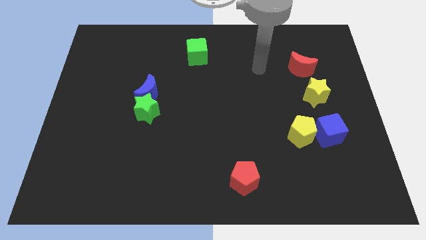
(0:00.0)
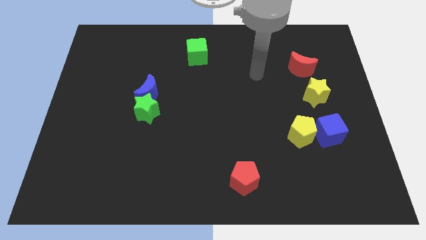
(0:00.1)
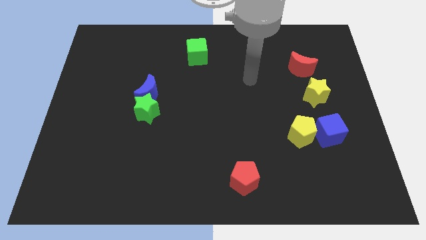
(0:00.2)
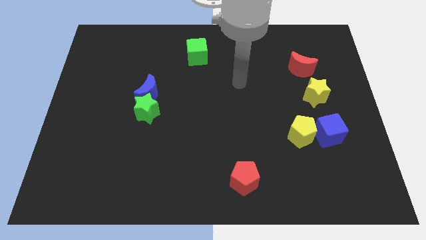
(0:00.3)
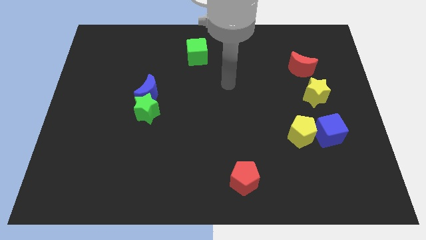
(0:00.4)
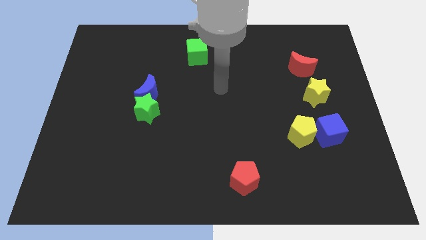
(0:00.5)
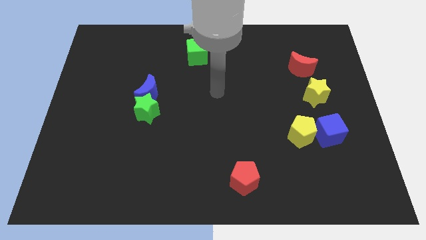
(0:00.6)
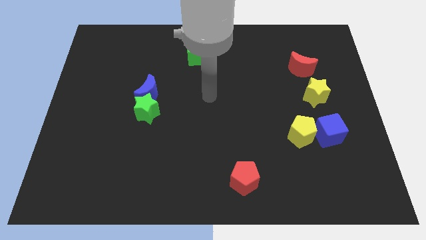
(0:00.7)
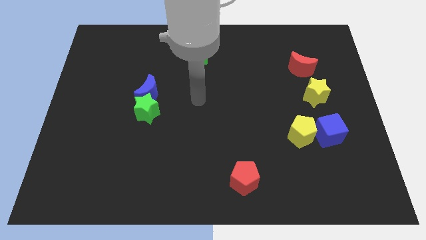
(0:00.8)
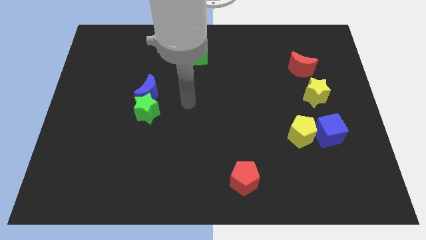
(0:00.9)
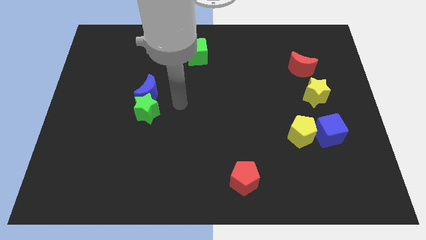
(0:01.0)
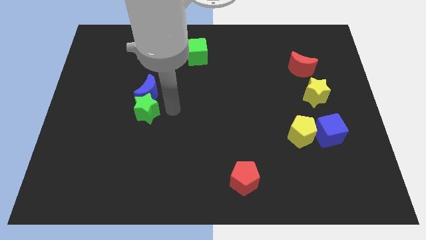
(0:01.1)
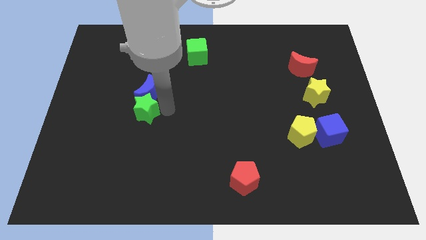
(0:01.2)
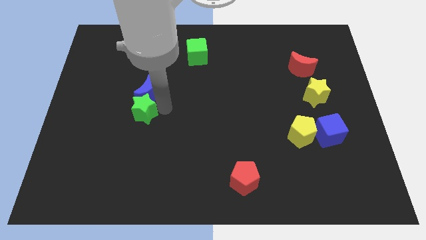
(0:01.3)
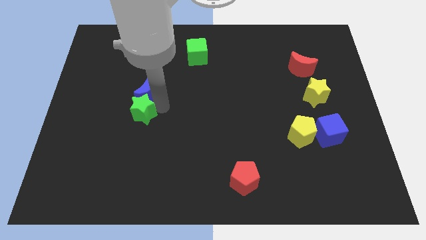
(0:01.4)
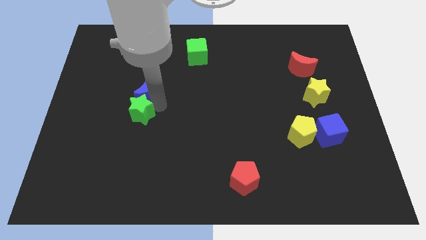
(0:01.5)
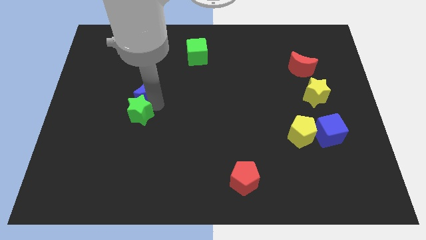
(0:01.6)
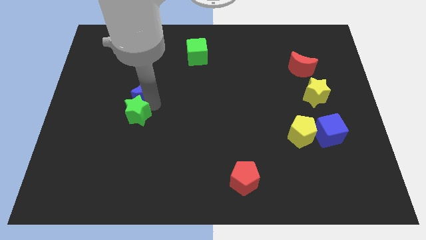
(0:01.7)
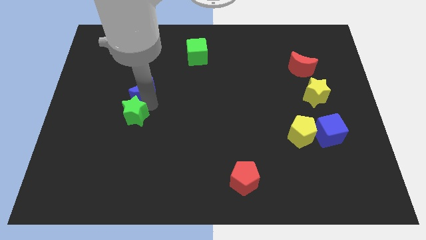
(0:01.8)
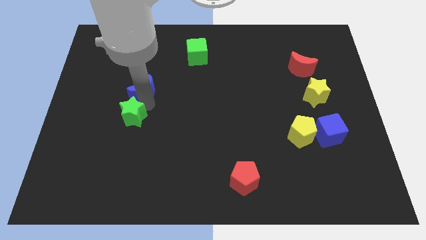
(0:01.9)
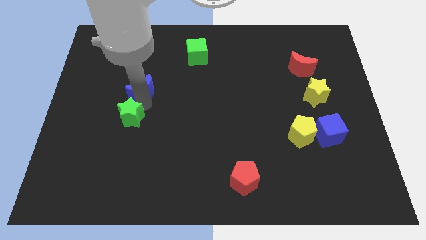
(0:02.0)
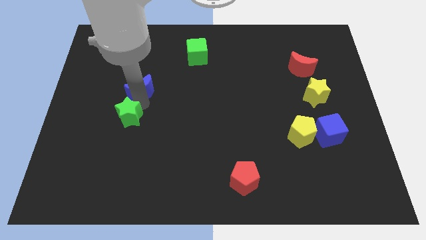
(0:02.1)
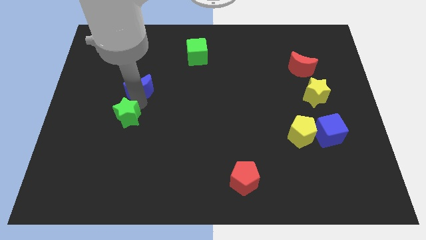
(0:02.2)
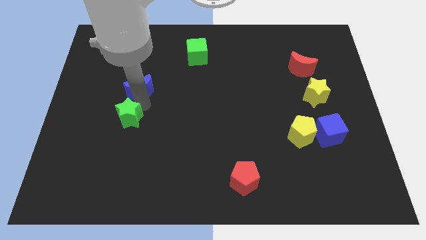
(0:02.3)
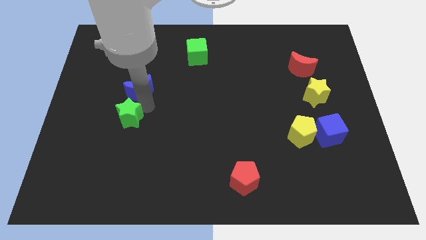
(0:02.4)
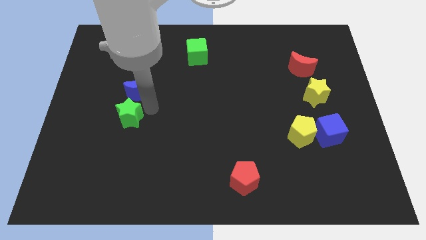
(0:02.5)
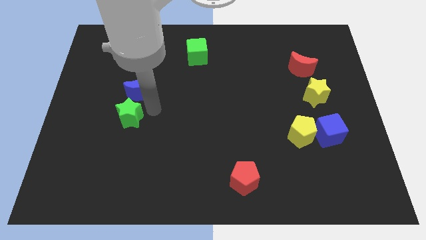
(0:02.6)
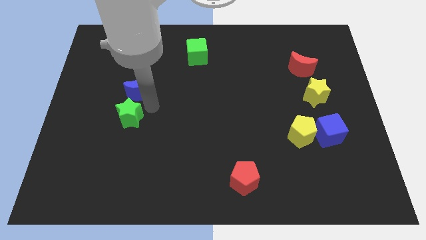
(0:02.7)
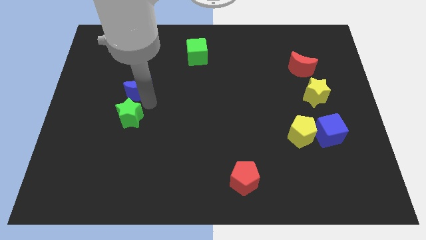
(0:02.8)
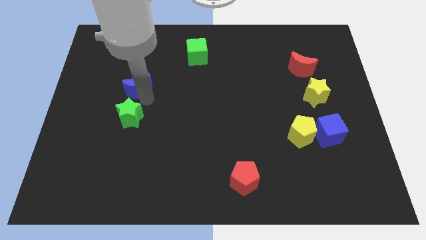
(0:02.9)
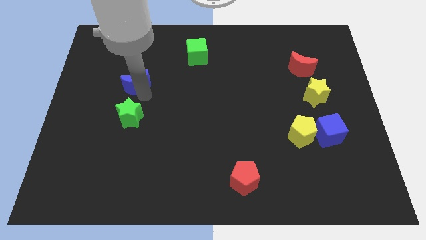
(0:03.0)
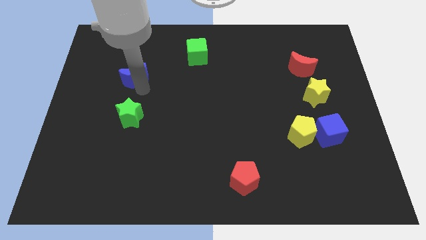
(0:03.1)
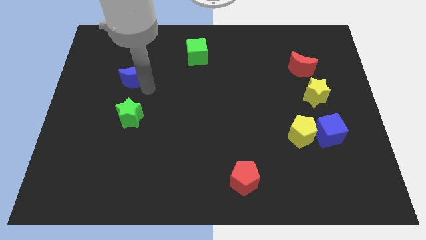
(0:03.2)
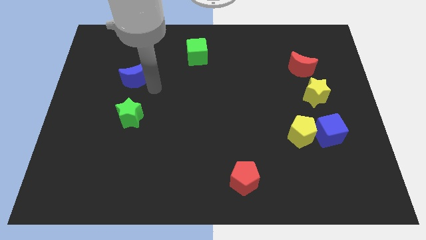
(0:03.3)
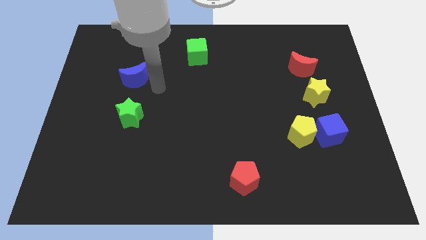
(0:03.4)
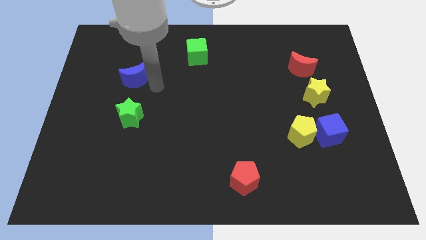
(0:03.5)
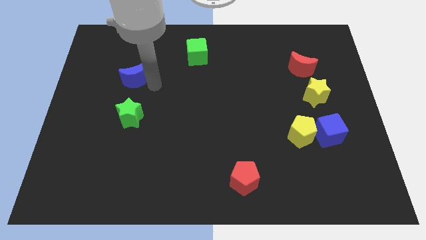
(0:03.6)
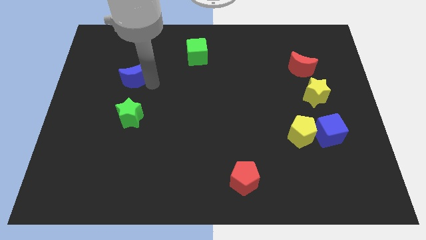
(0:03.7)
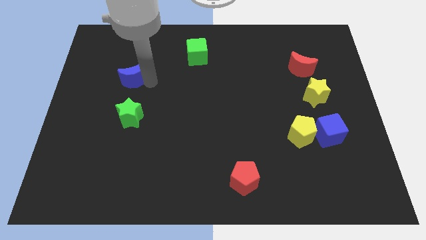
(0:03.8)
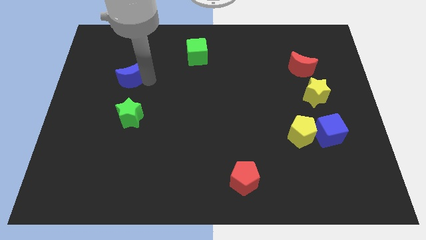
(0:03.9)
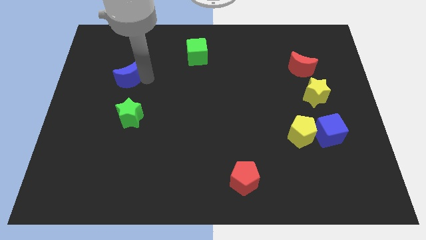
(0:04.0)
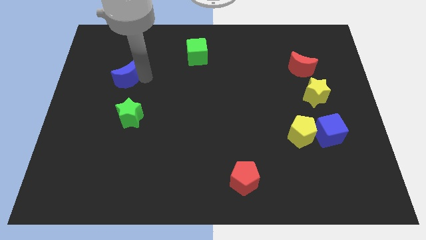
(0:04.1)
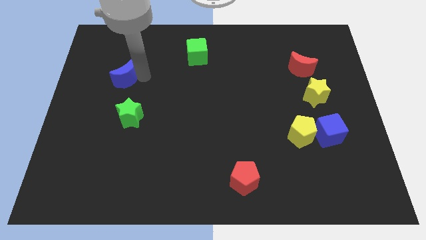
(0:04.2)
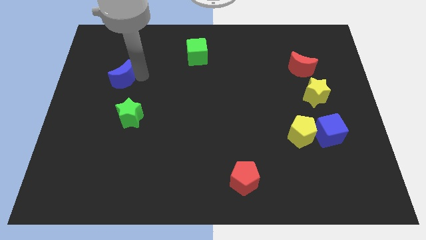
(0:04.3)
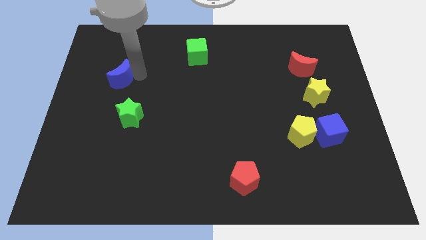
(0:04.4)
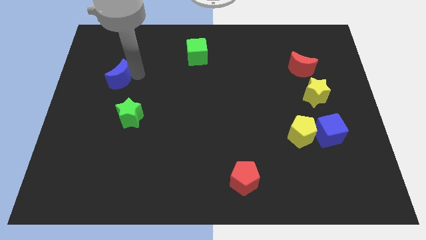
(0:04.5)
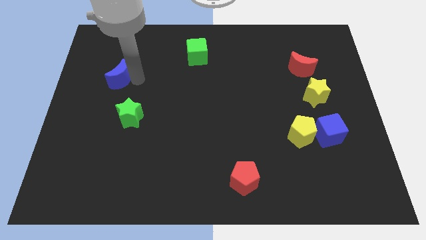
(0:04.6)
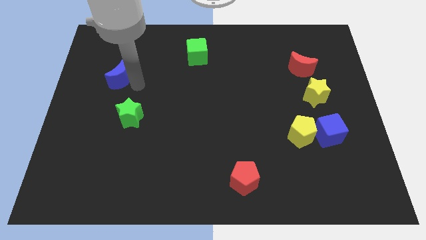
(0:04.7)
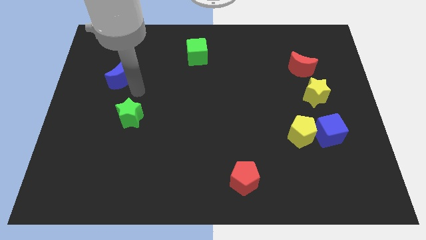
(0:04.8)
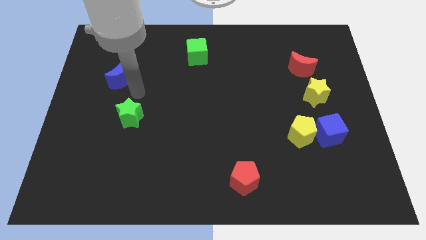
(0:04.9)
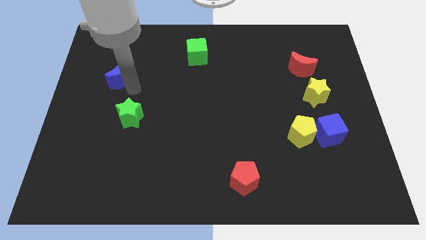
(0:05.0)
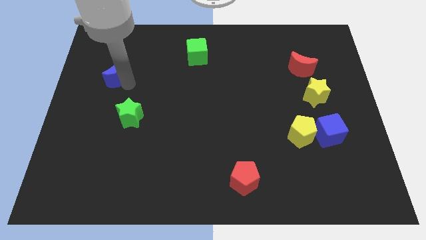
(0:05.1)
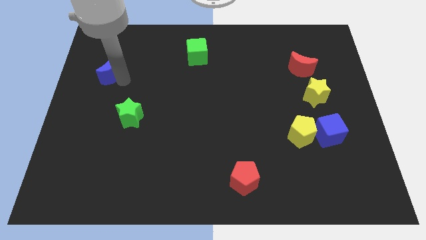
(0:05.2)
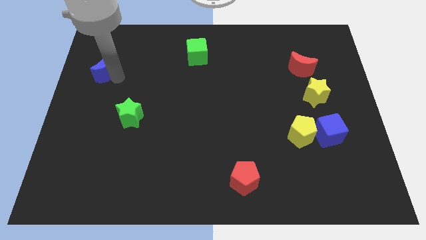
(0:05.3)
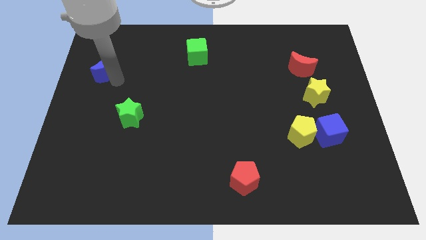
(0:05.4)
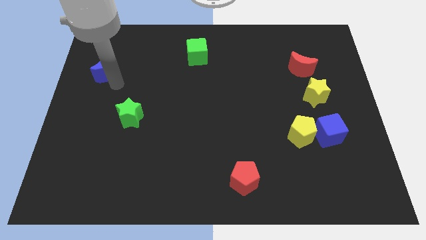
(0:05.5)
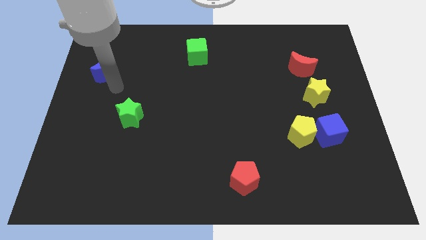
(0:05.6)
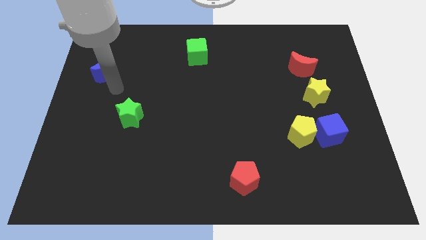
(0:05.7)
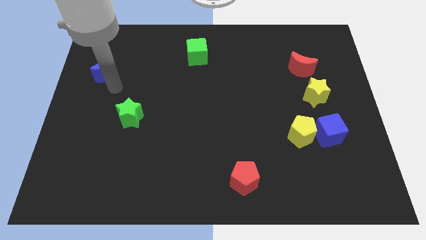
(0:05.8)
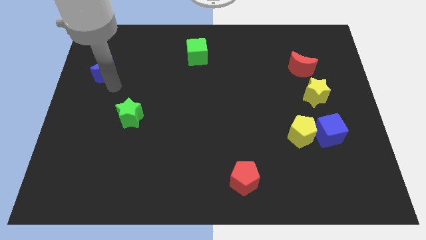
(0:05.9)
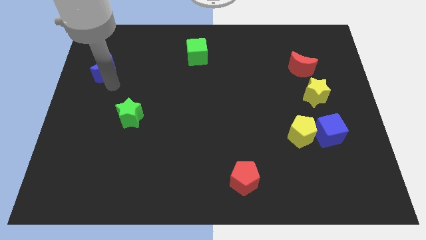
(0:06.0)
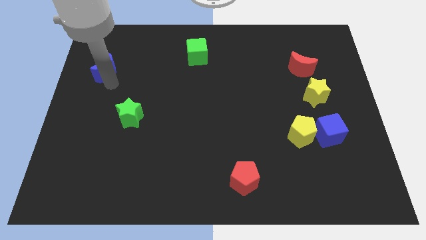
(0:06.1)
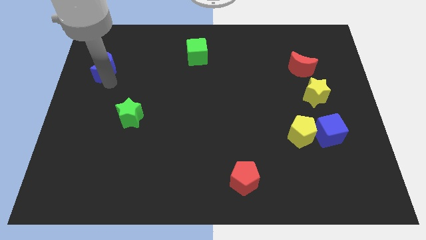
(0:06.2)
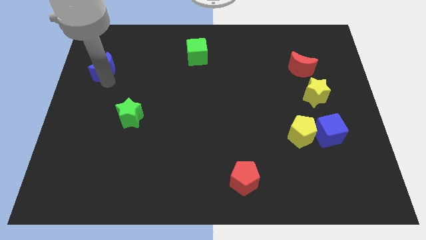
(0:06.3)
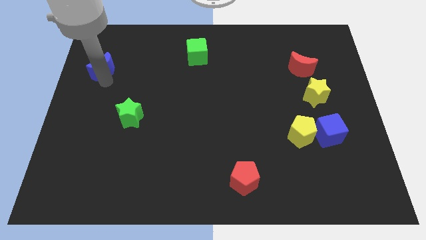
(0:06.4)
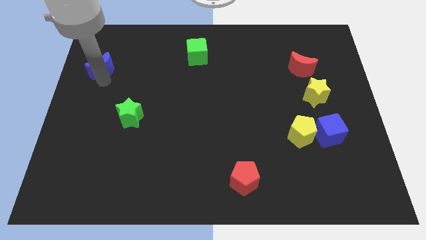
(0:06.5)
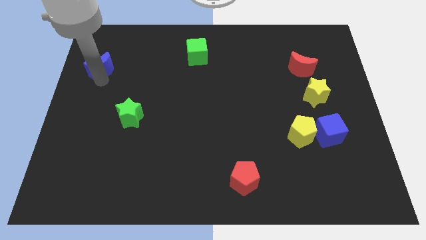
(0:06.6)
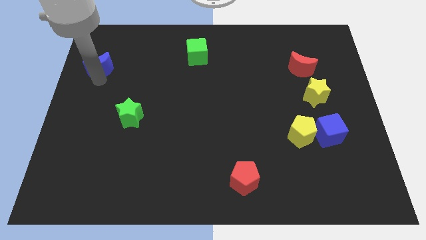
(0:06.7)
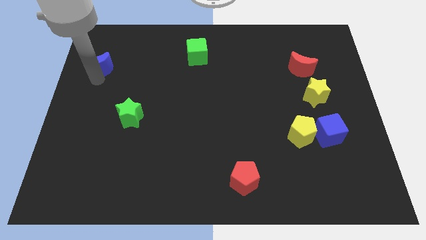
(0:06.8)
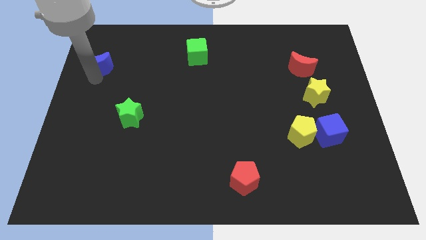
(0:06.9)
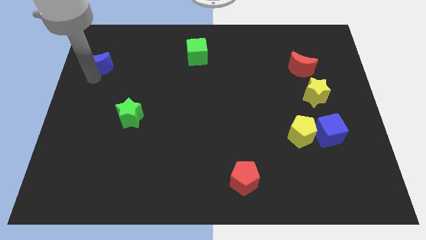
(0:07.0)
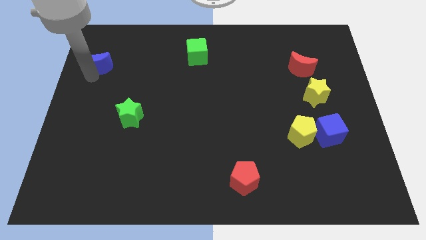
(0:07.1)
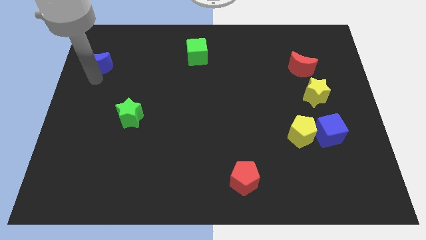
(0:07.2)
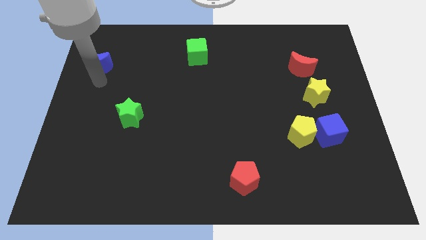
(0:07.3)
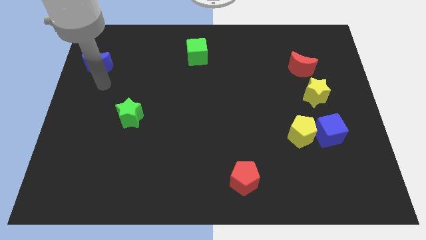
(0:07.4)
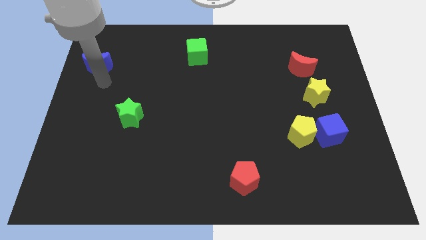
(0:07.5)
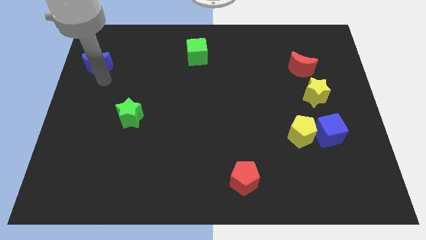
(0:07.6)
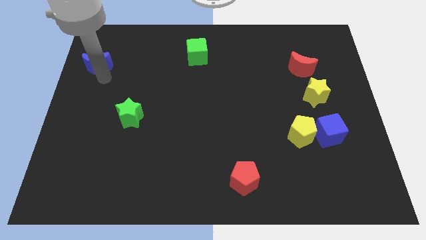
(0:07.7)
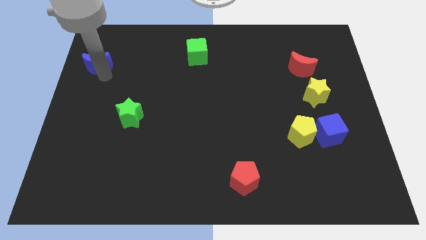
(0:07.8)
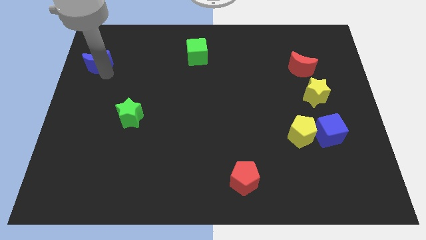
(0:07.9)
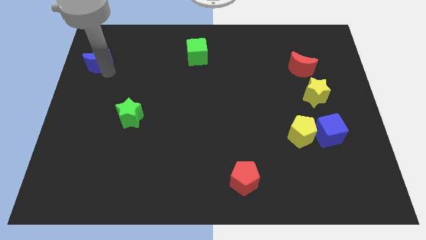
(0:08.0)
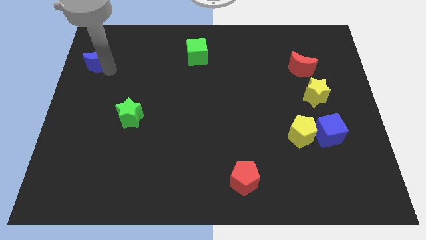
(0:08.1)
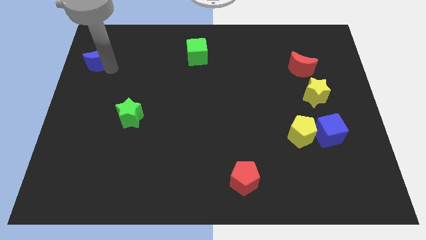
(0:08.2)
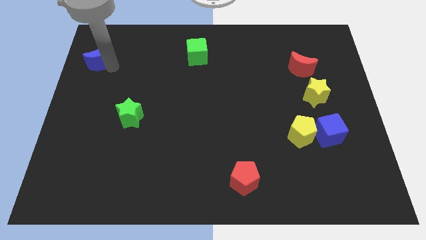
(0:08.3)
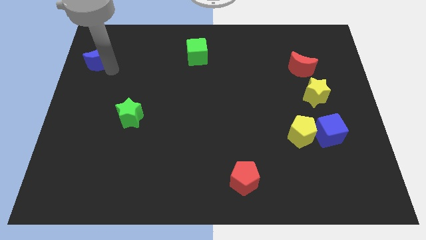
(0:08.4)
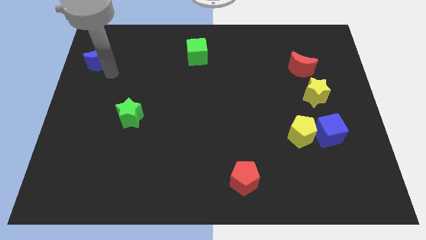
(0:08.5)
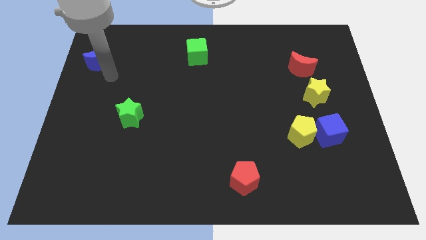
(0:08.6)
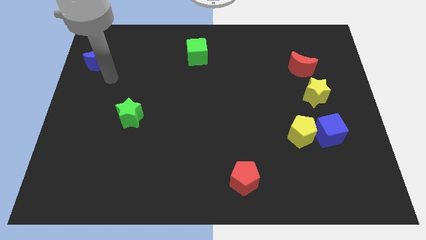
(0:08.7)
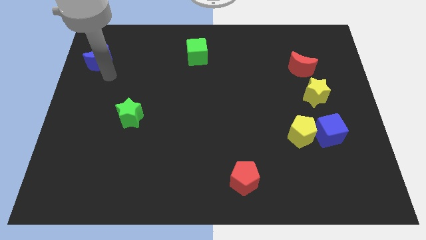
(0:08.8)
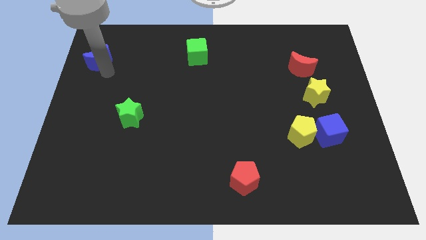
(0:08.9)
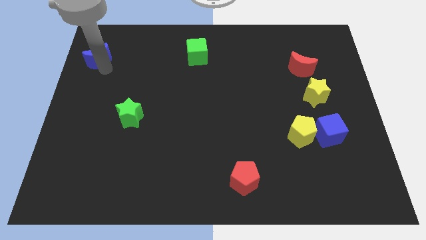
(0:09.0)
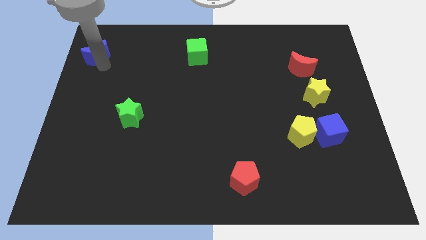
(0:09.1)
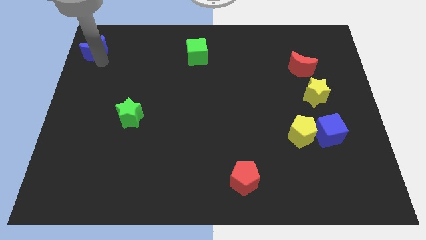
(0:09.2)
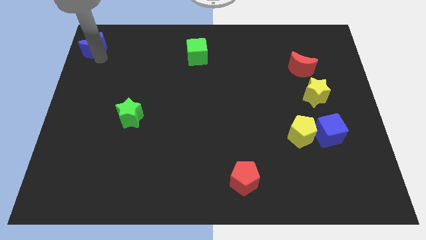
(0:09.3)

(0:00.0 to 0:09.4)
push the blue moon to the top left corner
